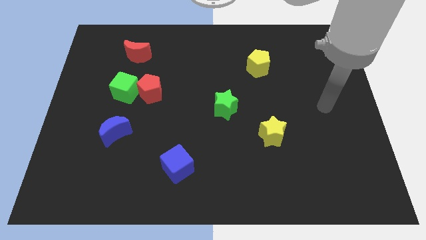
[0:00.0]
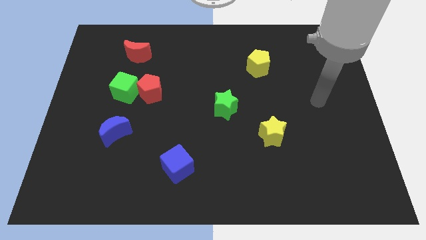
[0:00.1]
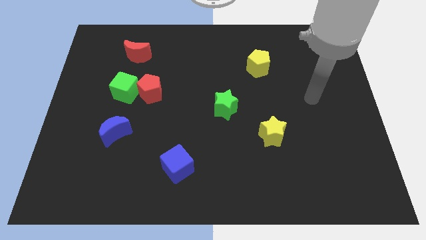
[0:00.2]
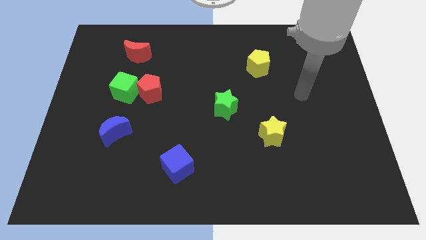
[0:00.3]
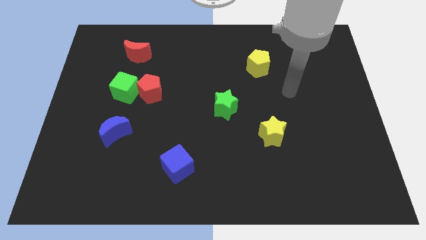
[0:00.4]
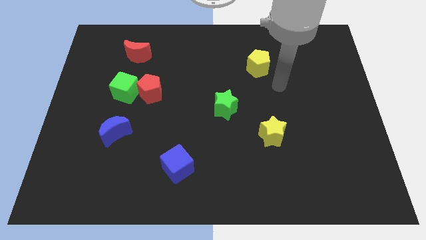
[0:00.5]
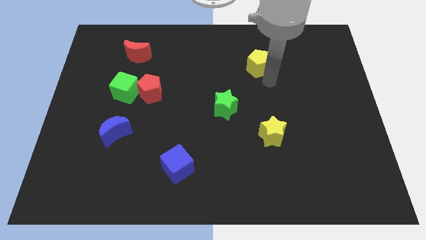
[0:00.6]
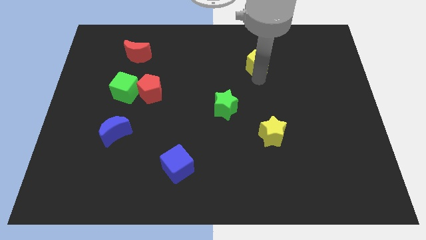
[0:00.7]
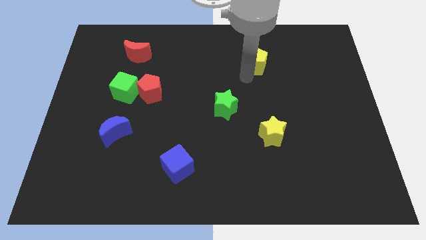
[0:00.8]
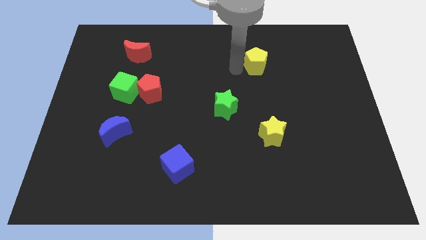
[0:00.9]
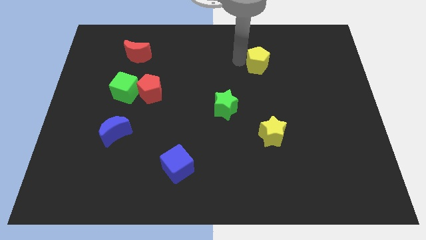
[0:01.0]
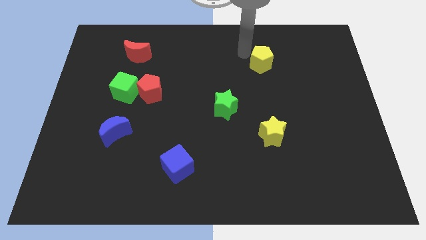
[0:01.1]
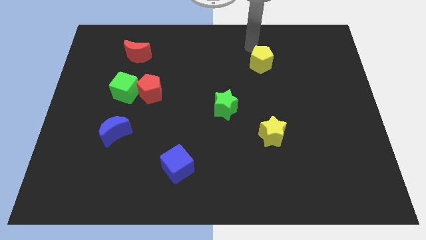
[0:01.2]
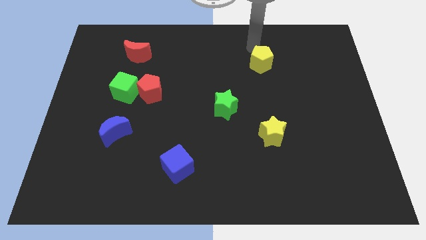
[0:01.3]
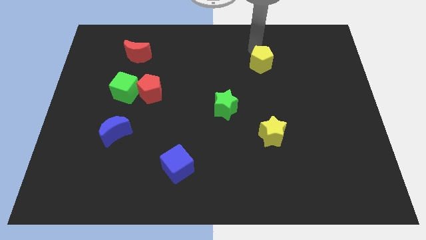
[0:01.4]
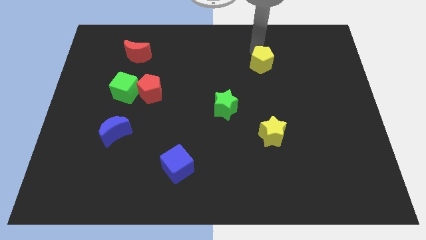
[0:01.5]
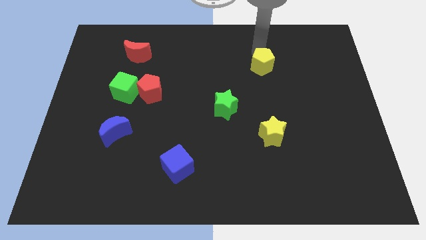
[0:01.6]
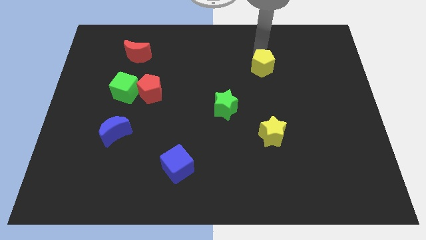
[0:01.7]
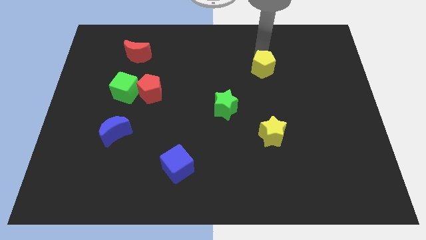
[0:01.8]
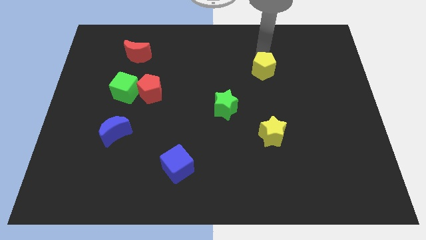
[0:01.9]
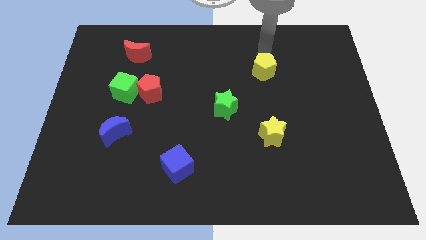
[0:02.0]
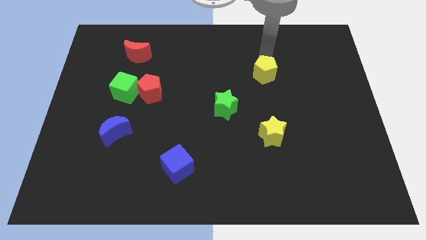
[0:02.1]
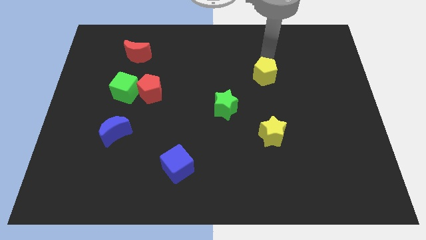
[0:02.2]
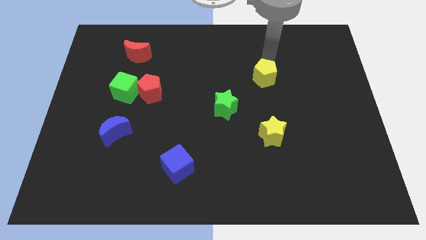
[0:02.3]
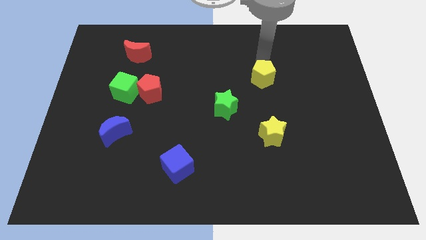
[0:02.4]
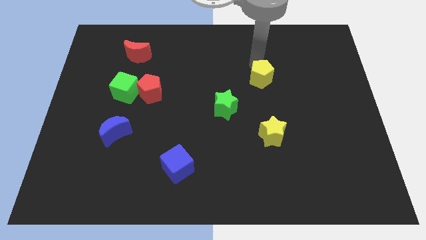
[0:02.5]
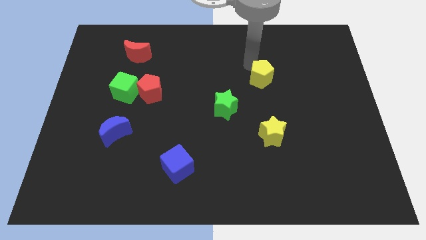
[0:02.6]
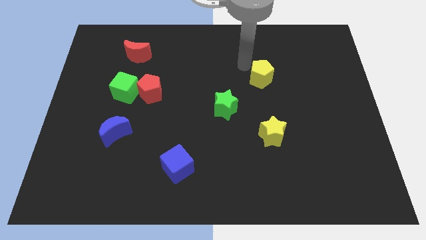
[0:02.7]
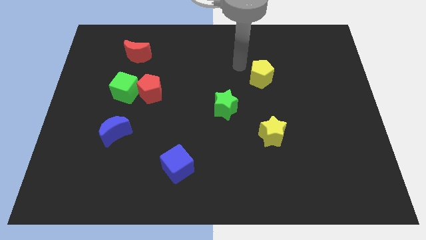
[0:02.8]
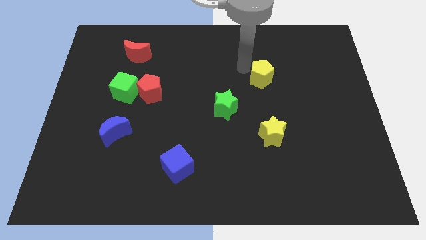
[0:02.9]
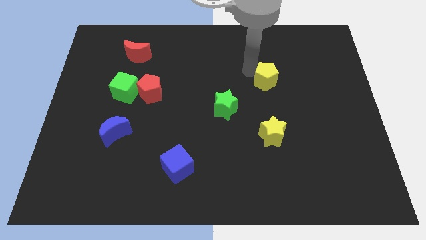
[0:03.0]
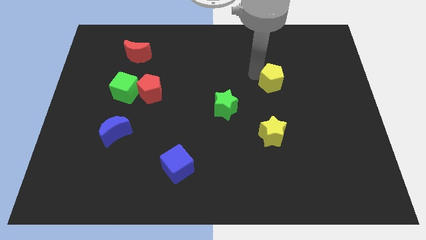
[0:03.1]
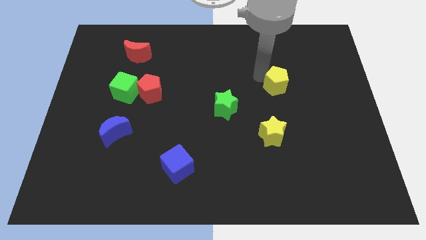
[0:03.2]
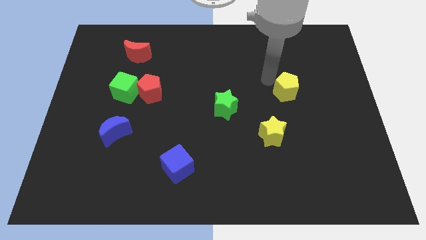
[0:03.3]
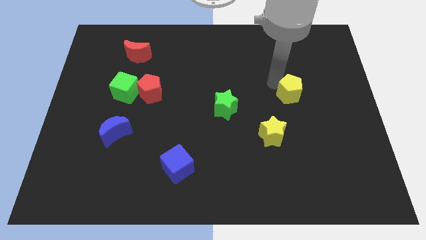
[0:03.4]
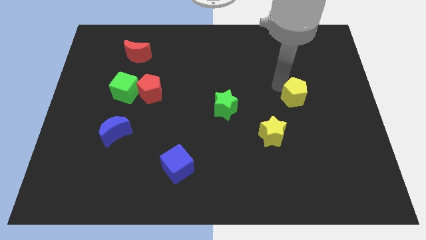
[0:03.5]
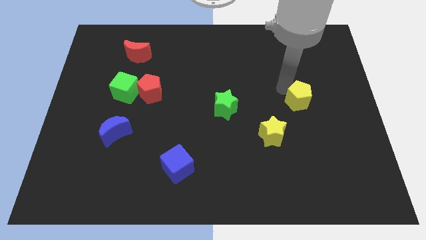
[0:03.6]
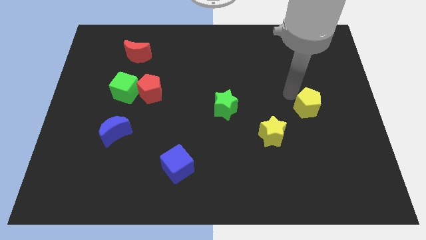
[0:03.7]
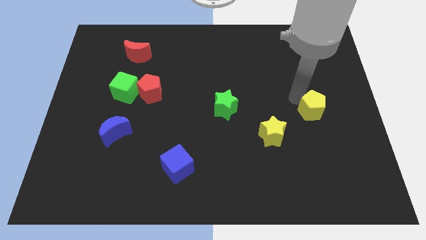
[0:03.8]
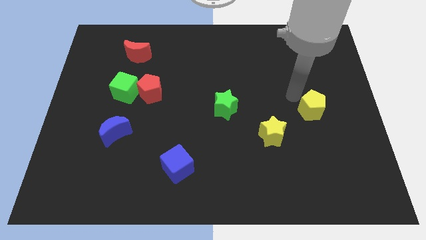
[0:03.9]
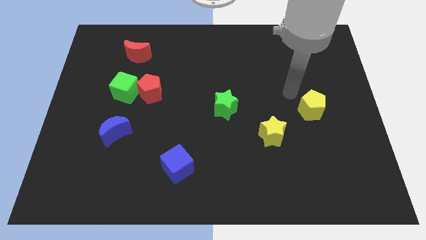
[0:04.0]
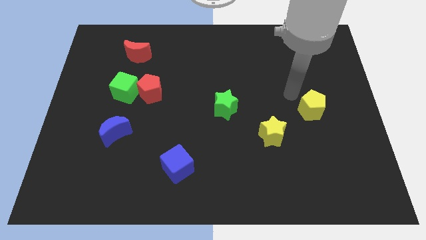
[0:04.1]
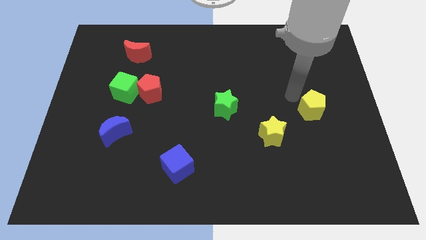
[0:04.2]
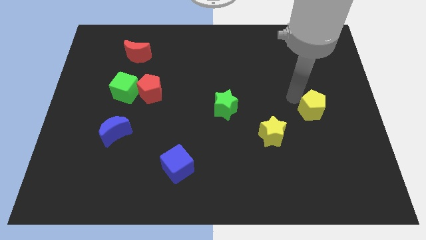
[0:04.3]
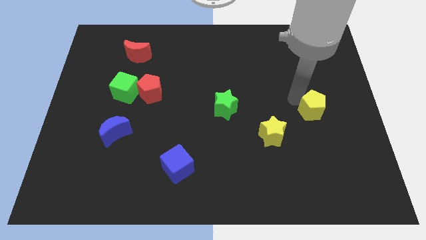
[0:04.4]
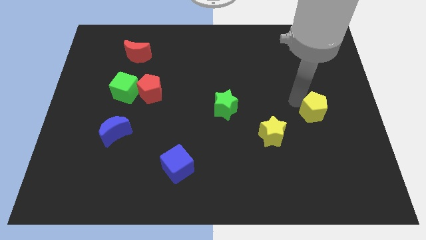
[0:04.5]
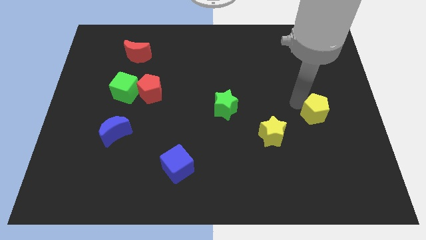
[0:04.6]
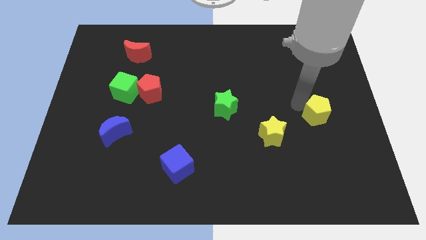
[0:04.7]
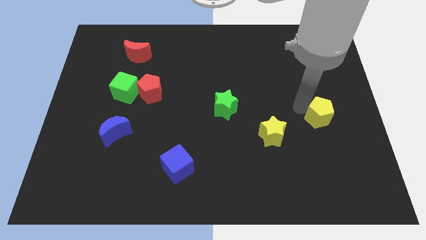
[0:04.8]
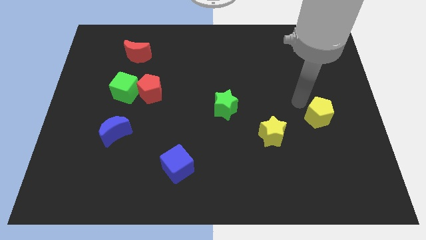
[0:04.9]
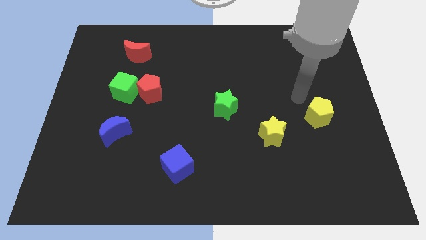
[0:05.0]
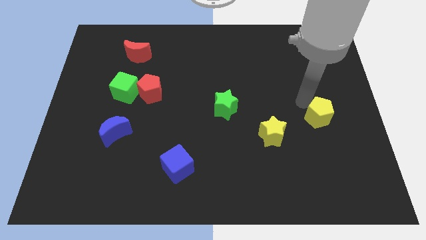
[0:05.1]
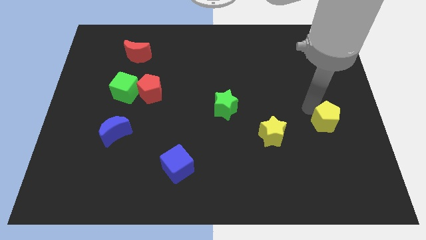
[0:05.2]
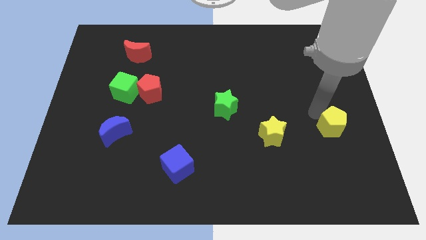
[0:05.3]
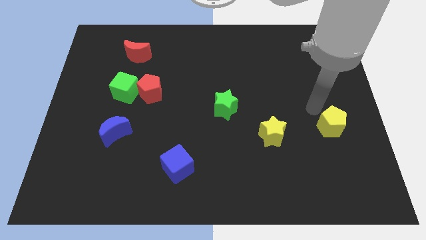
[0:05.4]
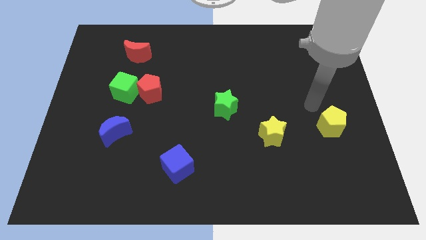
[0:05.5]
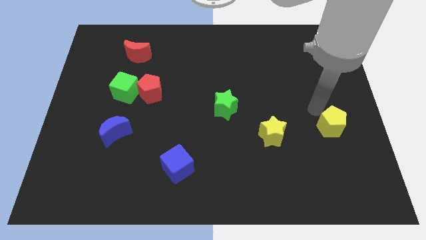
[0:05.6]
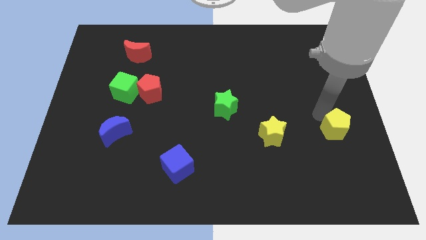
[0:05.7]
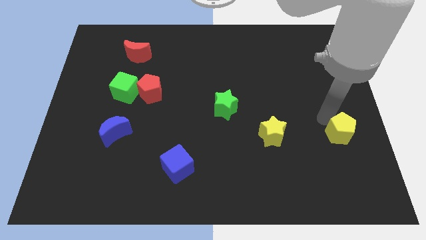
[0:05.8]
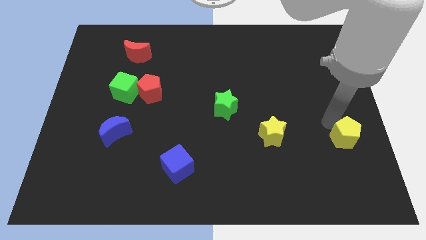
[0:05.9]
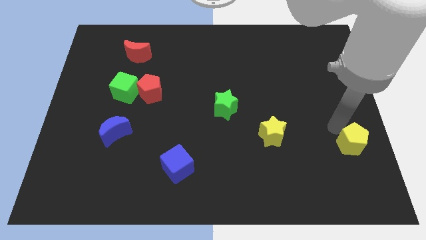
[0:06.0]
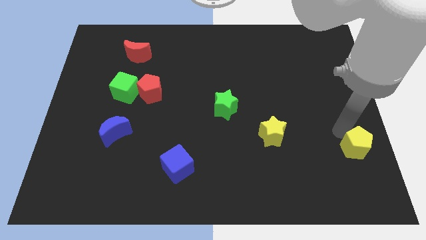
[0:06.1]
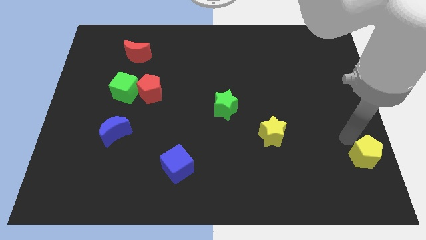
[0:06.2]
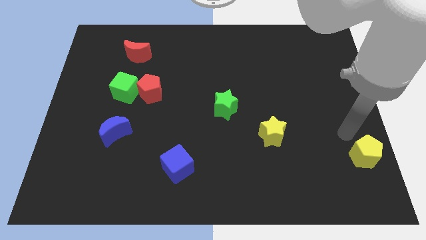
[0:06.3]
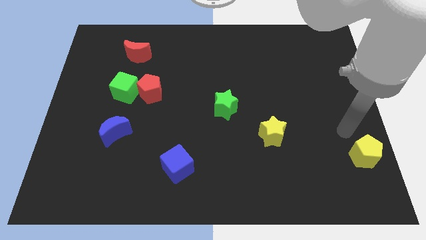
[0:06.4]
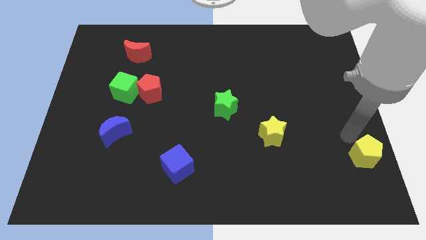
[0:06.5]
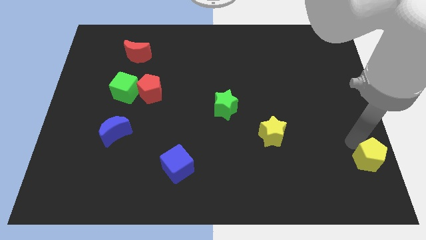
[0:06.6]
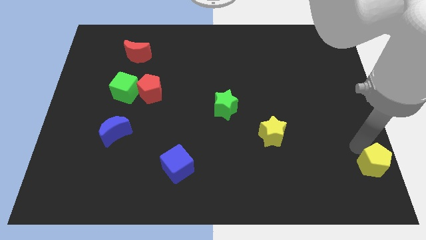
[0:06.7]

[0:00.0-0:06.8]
move the yellow pentagon to the bottom right of the board
